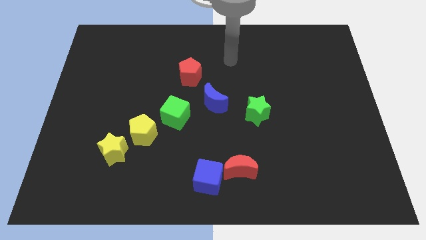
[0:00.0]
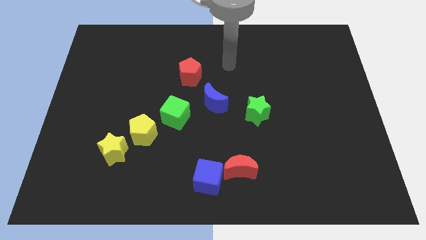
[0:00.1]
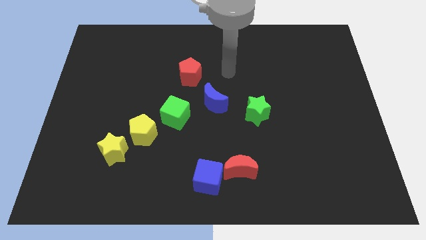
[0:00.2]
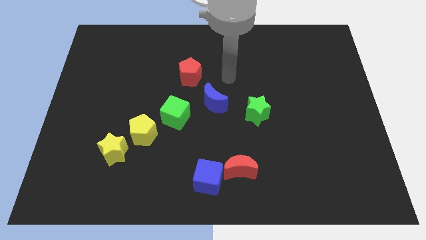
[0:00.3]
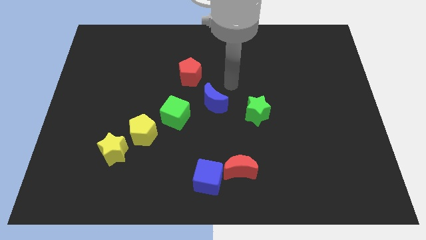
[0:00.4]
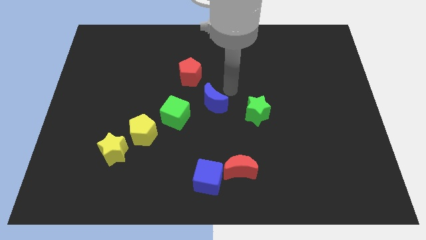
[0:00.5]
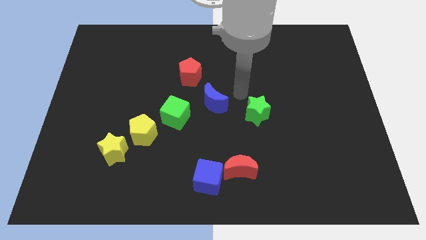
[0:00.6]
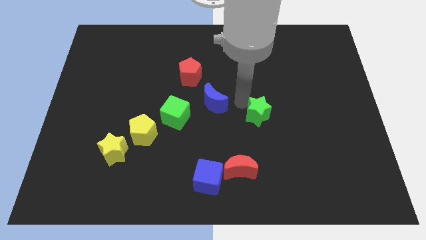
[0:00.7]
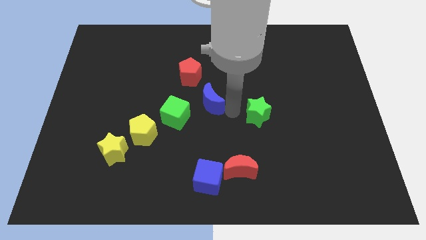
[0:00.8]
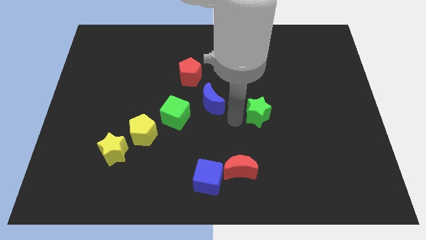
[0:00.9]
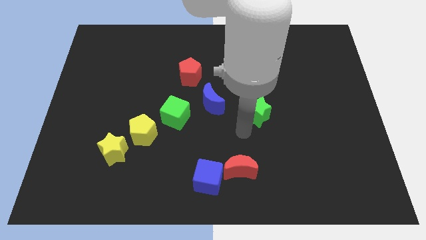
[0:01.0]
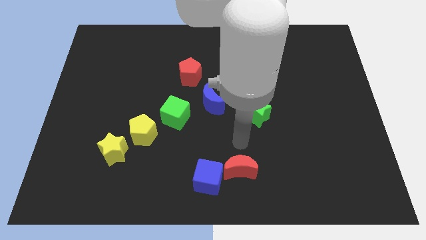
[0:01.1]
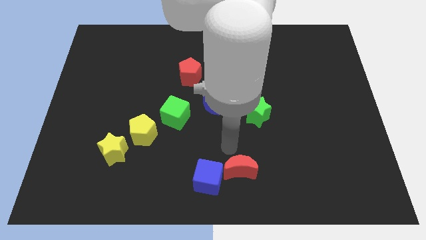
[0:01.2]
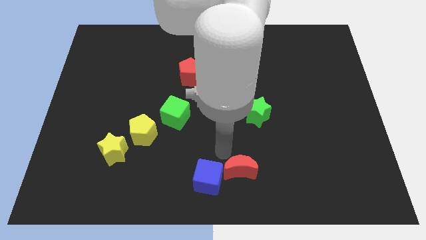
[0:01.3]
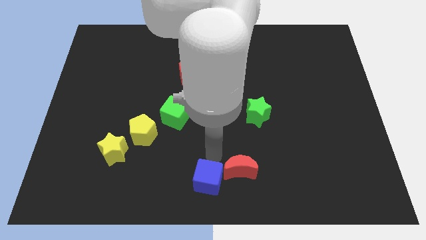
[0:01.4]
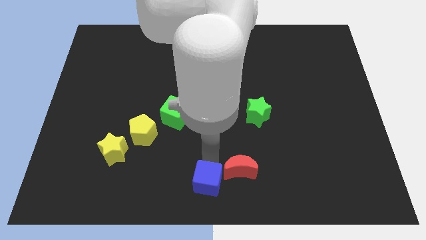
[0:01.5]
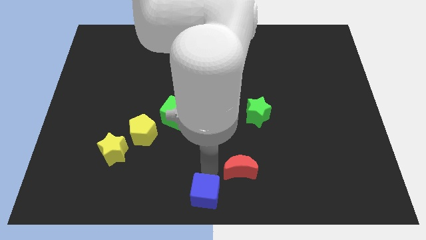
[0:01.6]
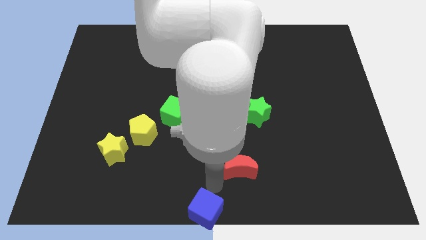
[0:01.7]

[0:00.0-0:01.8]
pull the red moon apart from the blue cube

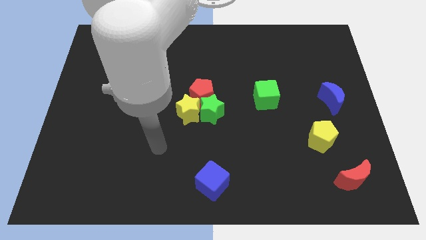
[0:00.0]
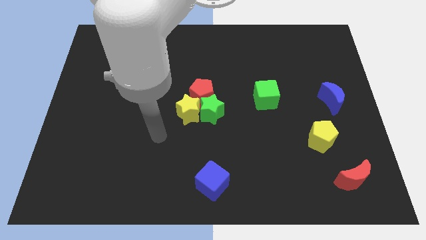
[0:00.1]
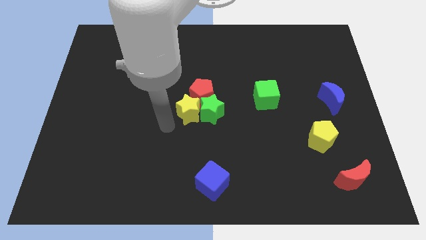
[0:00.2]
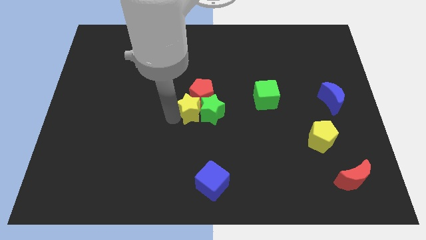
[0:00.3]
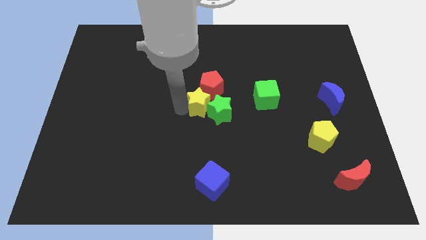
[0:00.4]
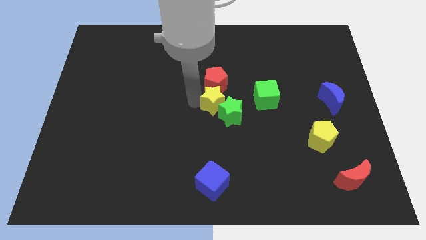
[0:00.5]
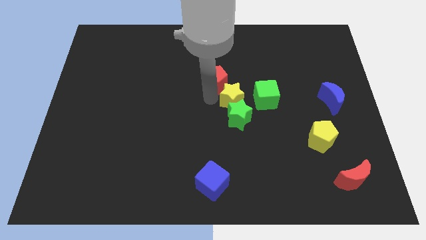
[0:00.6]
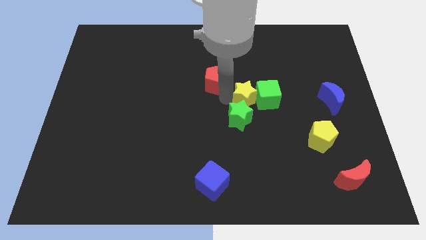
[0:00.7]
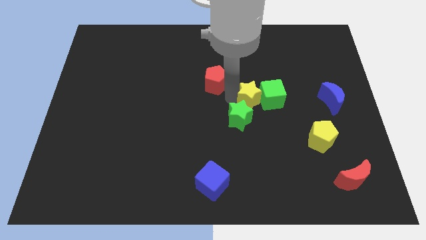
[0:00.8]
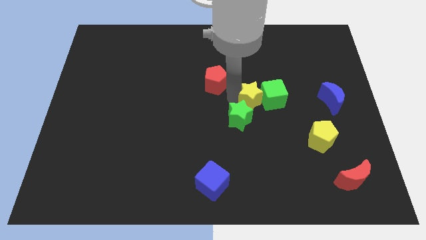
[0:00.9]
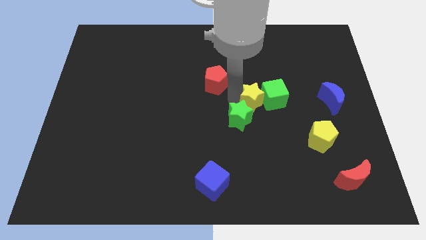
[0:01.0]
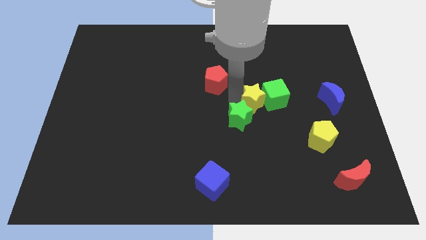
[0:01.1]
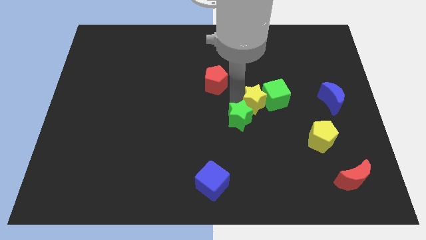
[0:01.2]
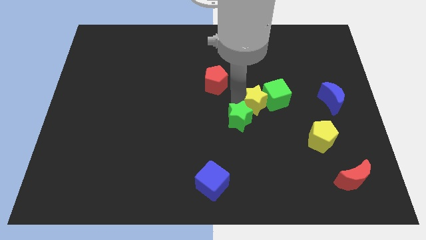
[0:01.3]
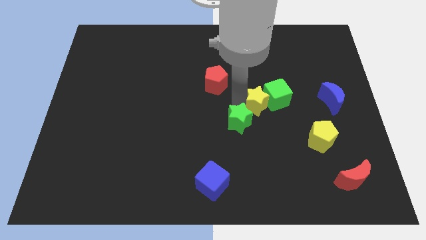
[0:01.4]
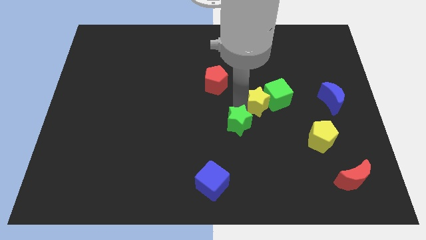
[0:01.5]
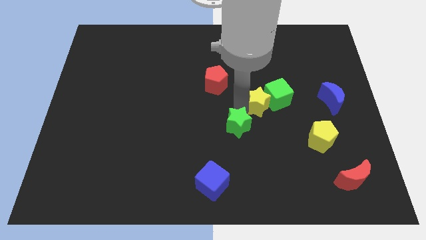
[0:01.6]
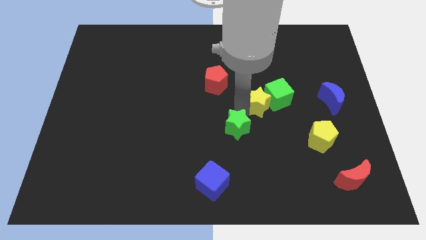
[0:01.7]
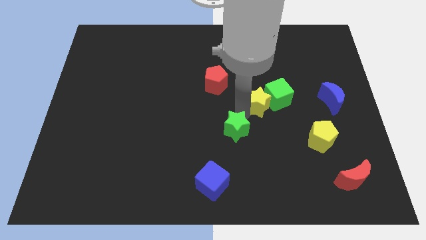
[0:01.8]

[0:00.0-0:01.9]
move the green star away from the red pentagon and yellow star

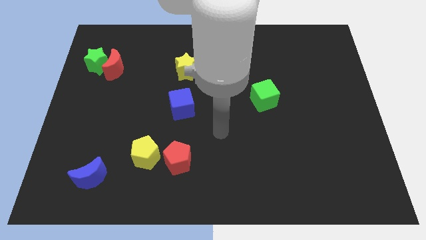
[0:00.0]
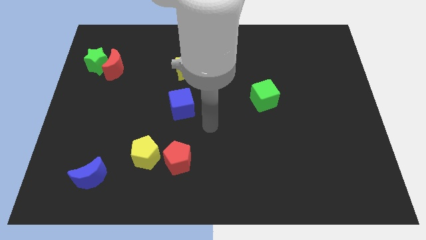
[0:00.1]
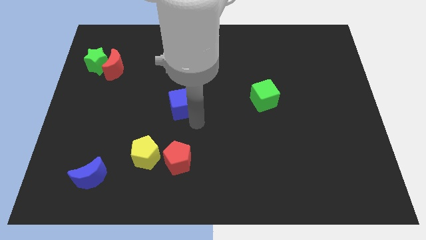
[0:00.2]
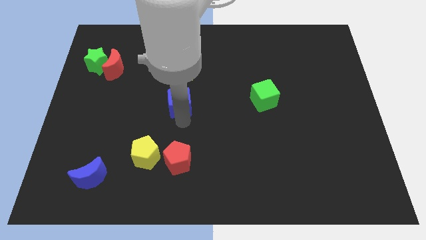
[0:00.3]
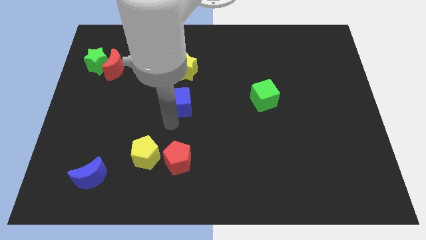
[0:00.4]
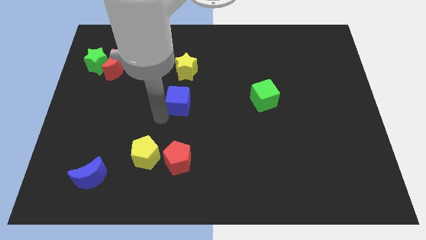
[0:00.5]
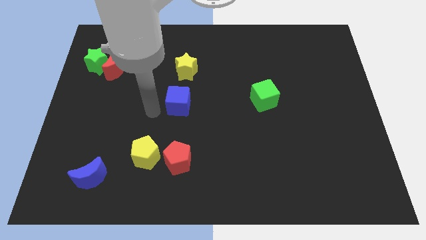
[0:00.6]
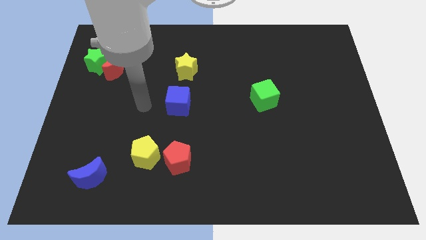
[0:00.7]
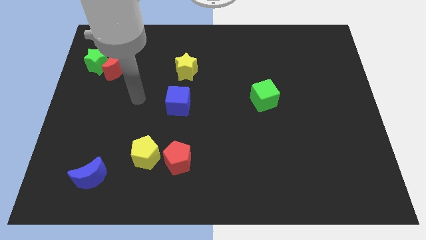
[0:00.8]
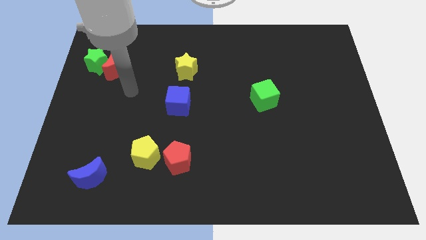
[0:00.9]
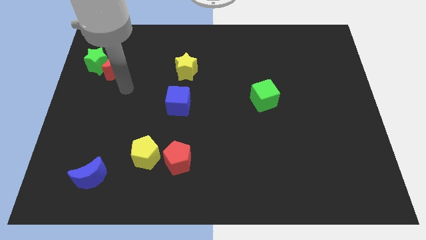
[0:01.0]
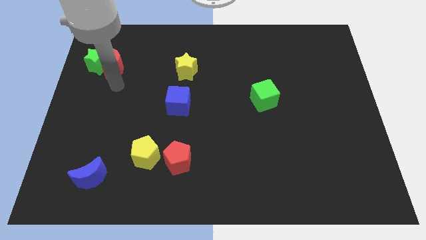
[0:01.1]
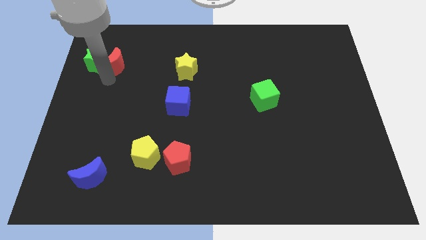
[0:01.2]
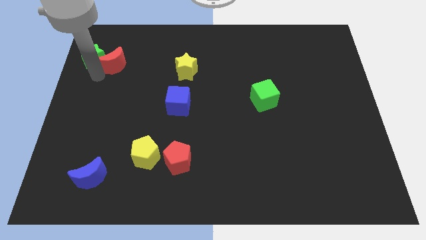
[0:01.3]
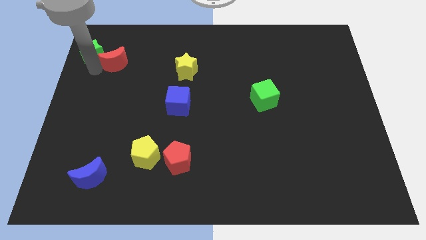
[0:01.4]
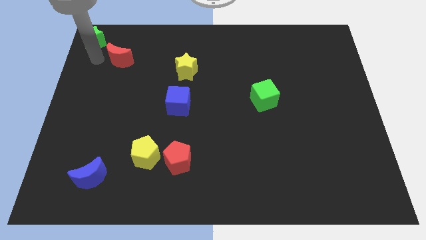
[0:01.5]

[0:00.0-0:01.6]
pull the red moon apart from the green star

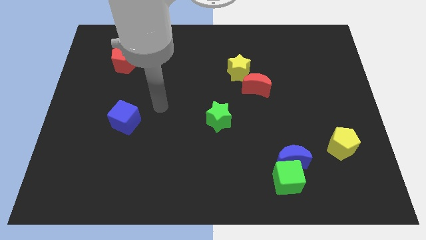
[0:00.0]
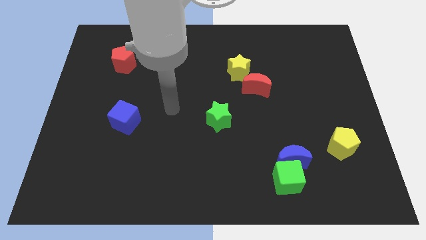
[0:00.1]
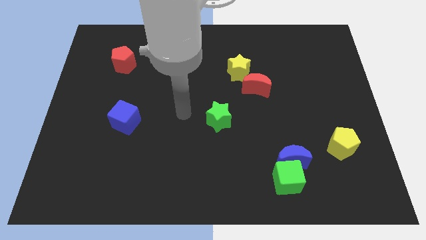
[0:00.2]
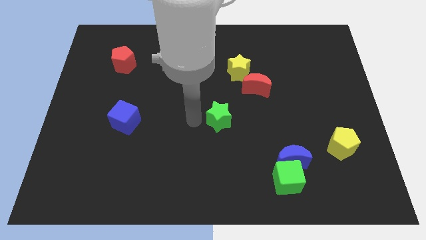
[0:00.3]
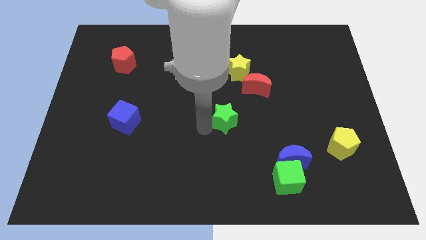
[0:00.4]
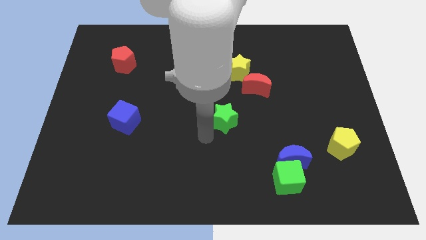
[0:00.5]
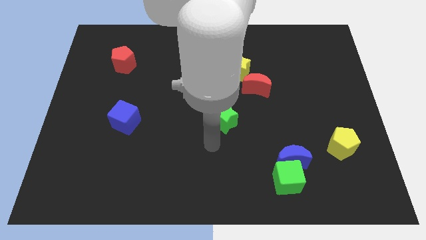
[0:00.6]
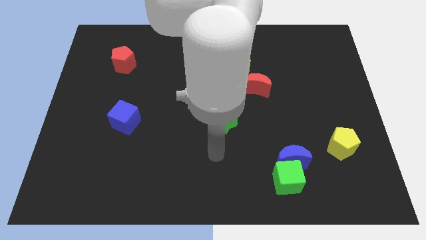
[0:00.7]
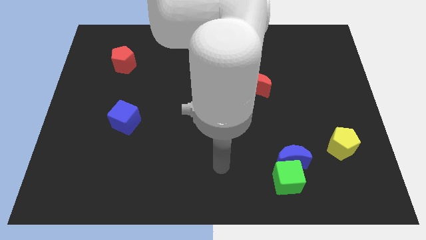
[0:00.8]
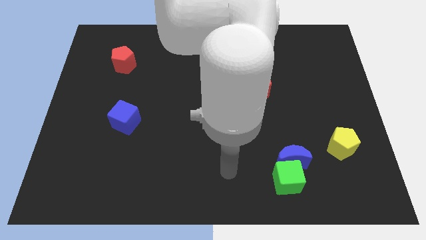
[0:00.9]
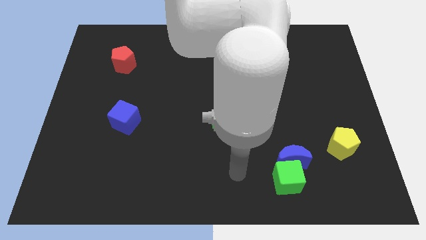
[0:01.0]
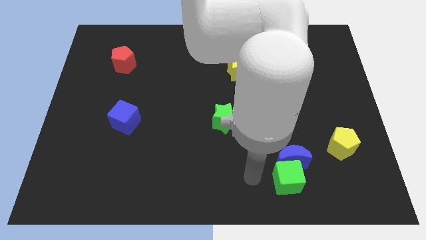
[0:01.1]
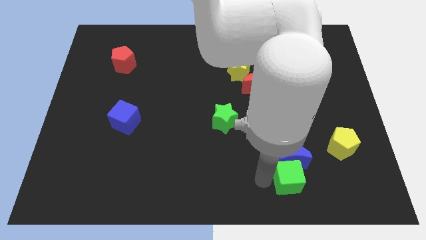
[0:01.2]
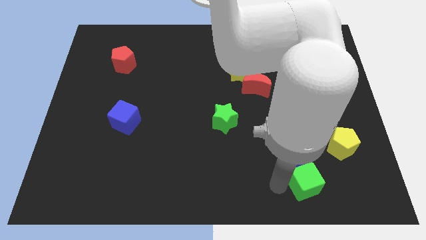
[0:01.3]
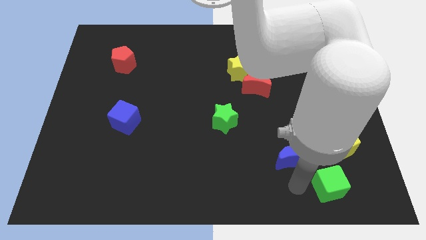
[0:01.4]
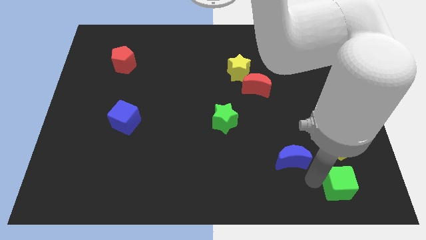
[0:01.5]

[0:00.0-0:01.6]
separate the blue moon from the green cube

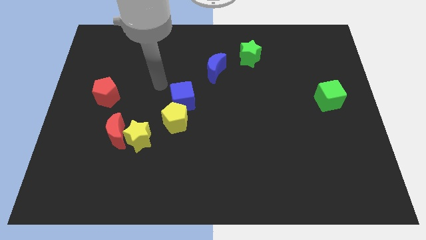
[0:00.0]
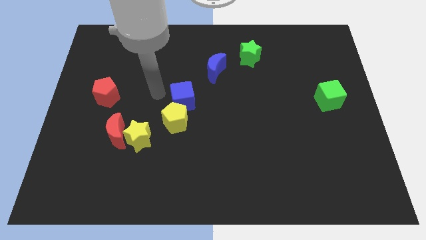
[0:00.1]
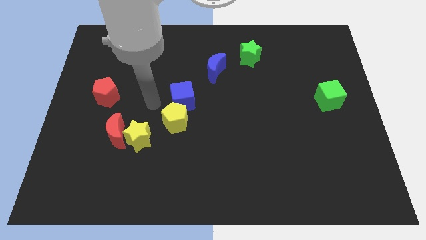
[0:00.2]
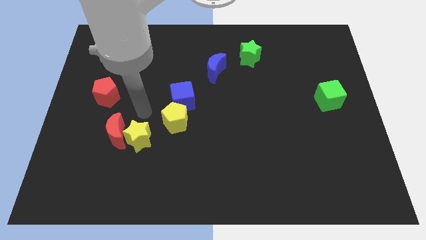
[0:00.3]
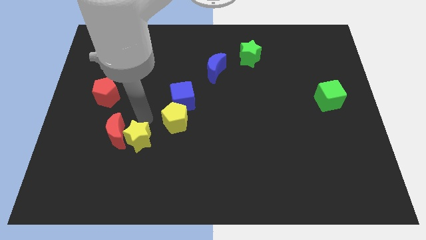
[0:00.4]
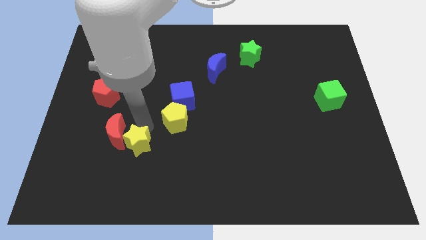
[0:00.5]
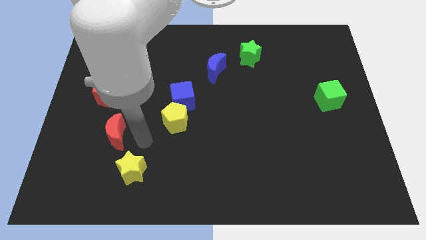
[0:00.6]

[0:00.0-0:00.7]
separate the red moon from the yellow star

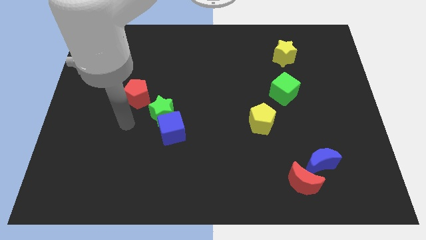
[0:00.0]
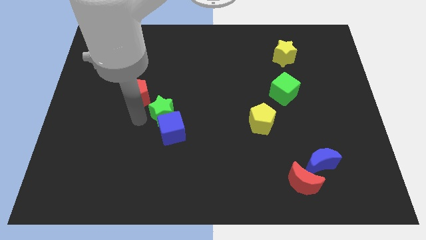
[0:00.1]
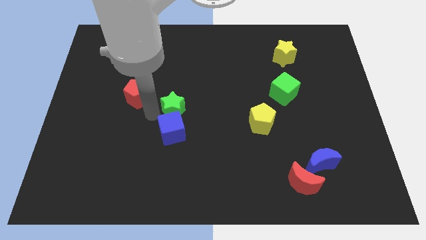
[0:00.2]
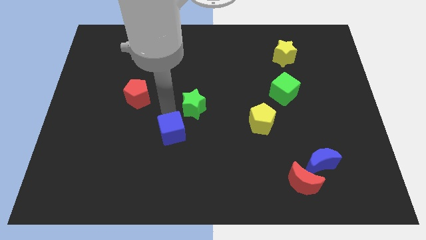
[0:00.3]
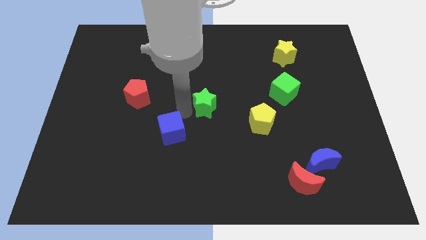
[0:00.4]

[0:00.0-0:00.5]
move the blue cube away from the green star

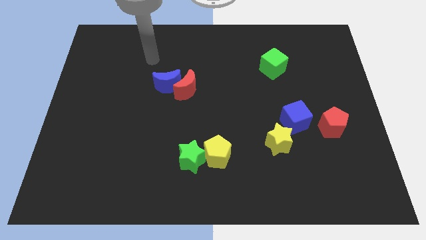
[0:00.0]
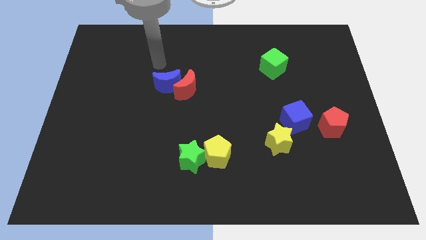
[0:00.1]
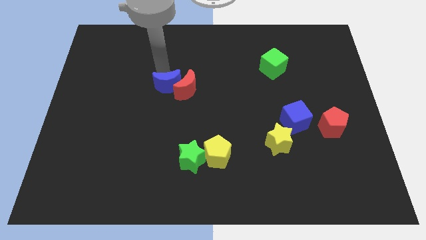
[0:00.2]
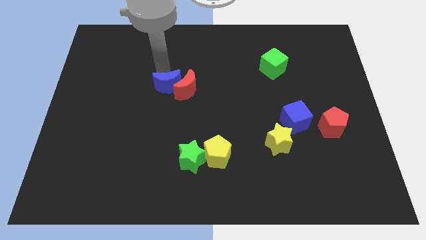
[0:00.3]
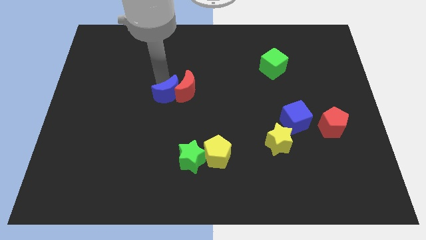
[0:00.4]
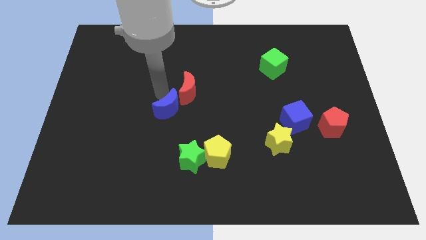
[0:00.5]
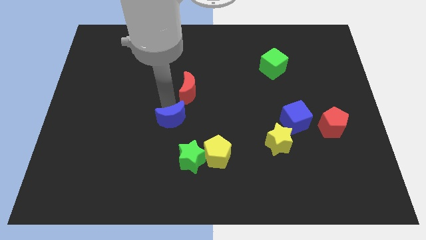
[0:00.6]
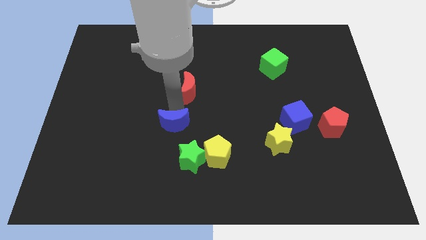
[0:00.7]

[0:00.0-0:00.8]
pull the red moon apart from the blue moon

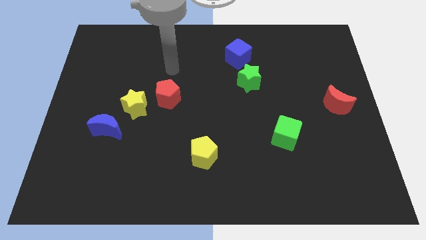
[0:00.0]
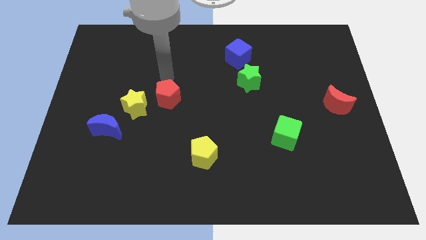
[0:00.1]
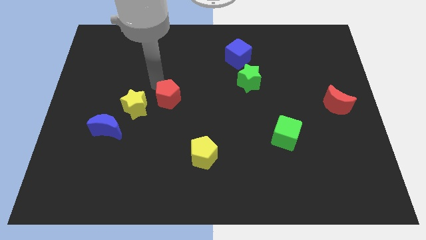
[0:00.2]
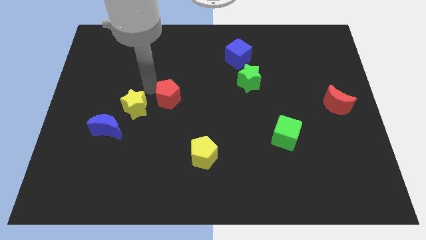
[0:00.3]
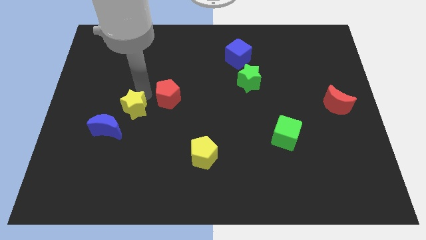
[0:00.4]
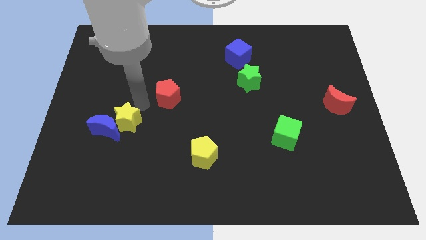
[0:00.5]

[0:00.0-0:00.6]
pull the red pentagon apart from the yellow star
